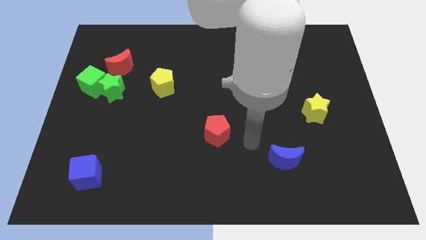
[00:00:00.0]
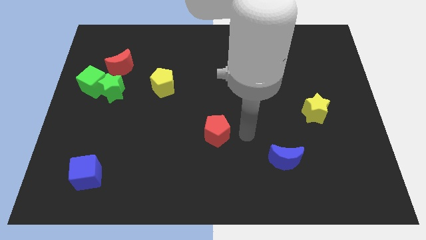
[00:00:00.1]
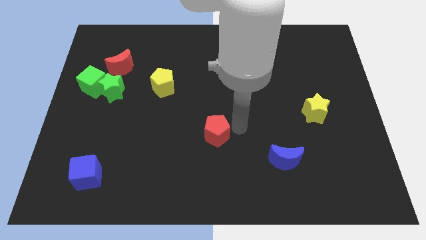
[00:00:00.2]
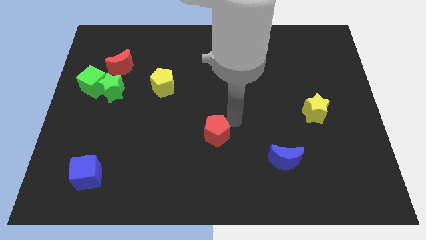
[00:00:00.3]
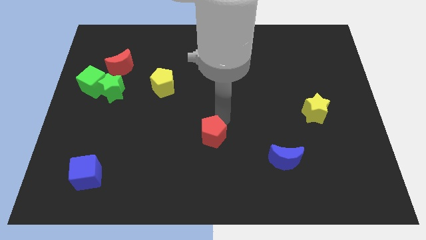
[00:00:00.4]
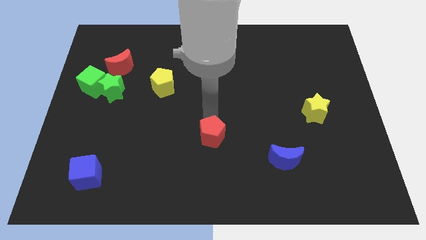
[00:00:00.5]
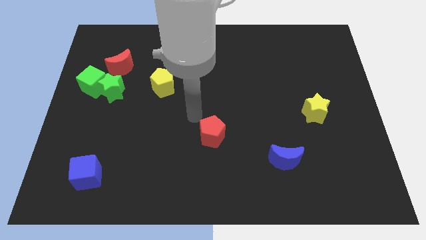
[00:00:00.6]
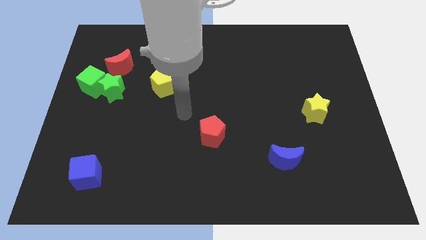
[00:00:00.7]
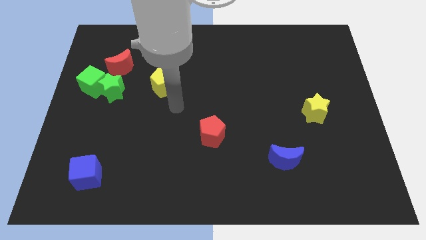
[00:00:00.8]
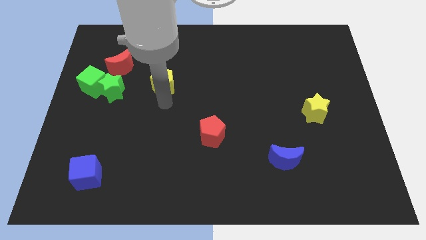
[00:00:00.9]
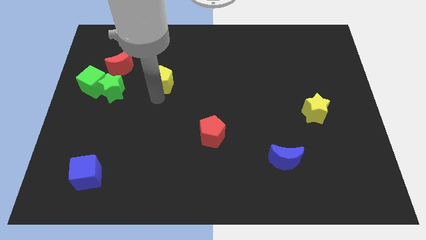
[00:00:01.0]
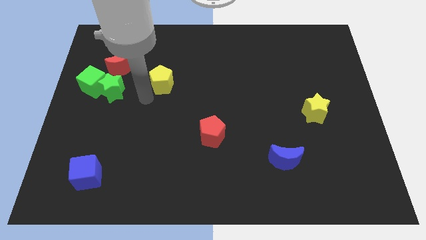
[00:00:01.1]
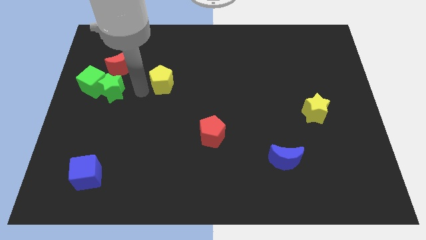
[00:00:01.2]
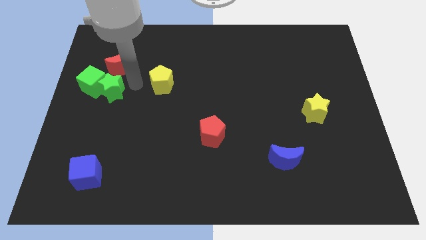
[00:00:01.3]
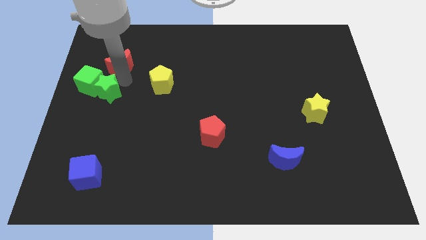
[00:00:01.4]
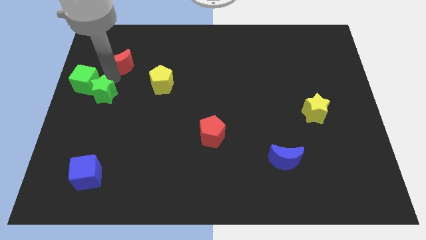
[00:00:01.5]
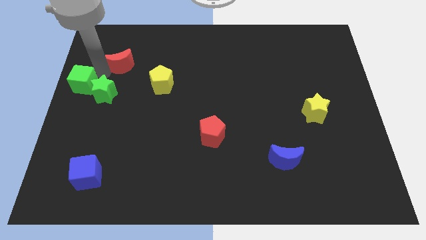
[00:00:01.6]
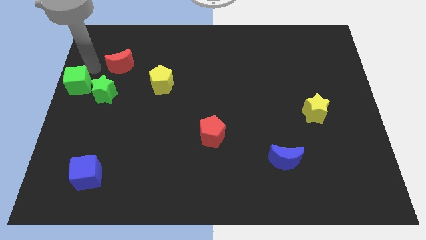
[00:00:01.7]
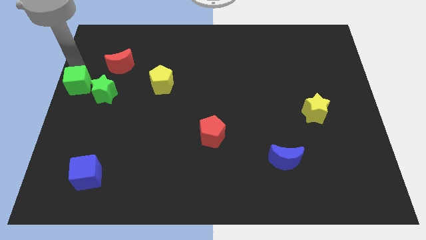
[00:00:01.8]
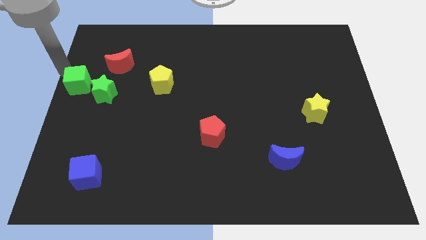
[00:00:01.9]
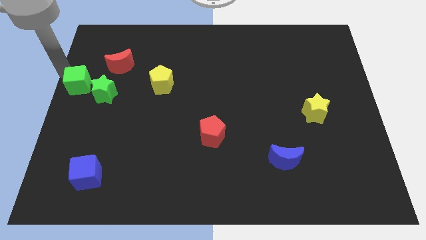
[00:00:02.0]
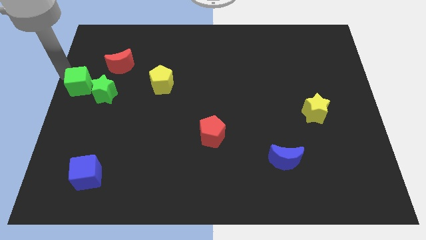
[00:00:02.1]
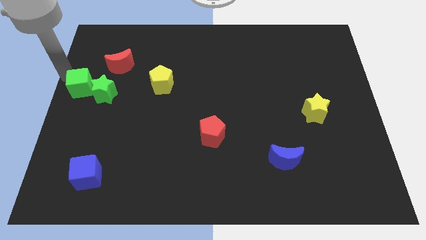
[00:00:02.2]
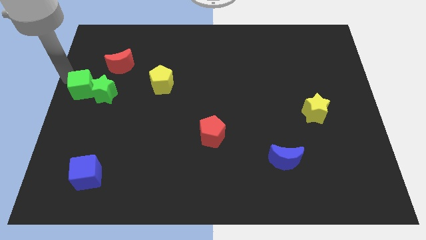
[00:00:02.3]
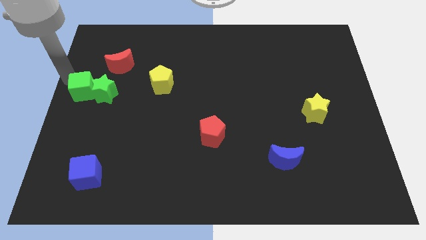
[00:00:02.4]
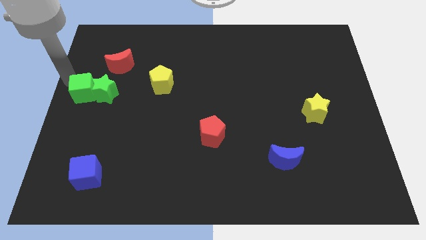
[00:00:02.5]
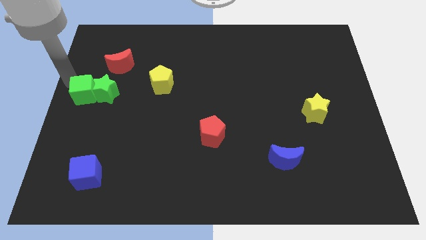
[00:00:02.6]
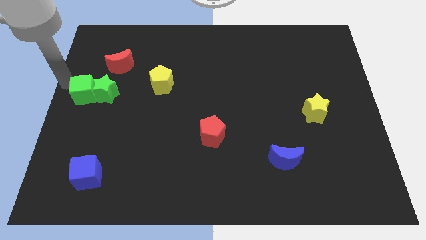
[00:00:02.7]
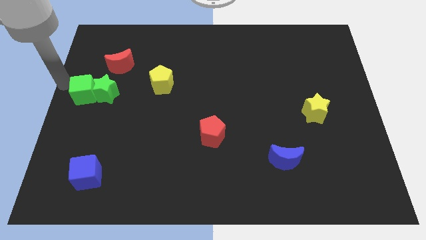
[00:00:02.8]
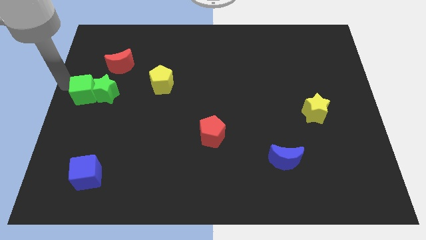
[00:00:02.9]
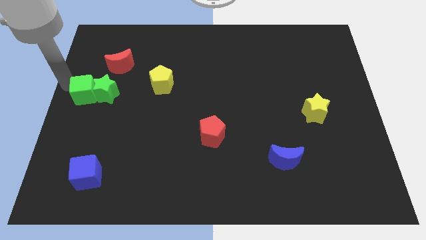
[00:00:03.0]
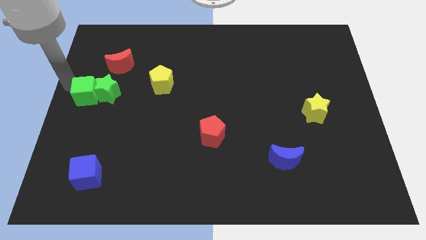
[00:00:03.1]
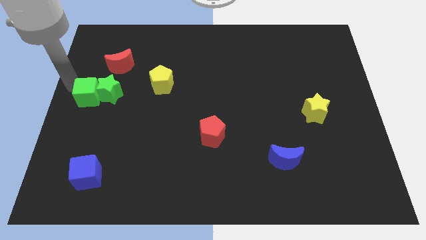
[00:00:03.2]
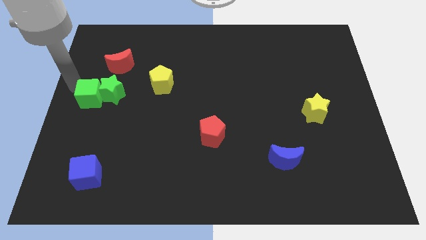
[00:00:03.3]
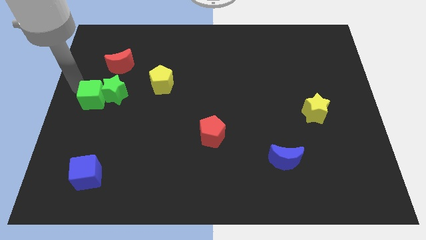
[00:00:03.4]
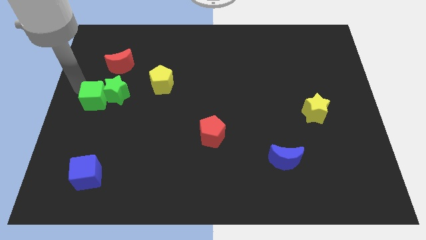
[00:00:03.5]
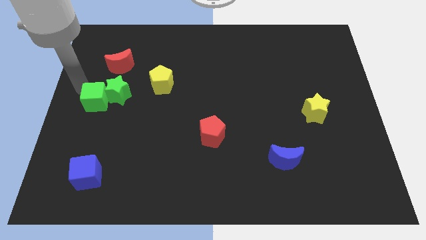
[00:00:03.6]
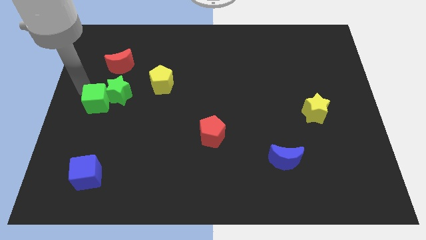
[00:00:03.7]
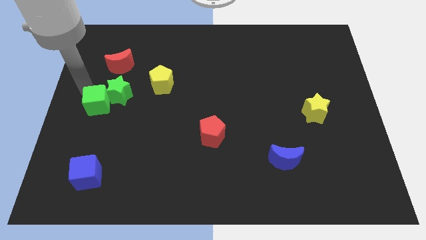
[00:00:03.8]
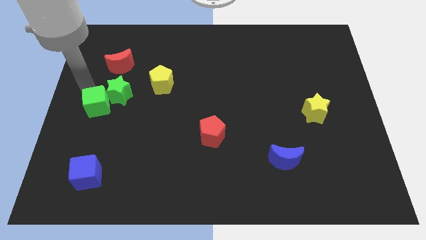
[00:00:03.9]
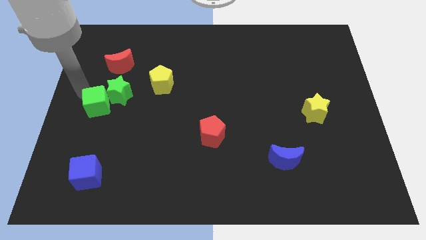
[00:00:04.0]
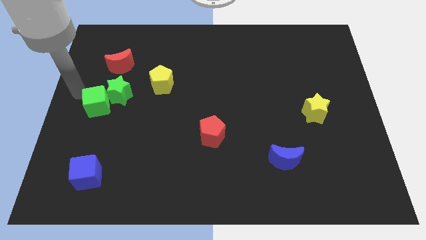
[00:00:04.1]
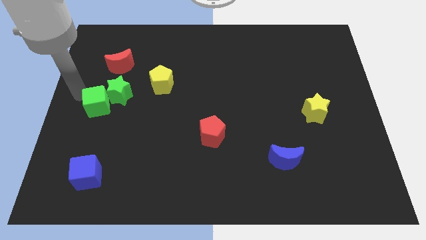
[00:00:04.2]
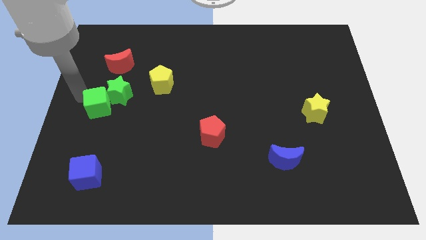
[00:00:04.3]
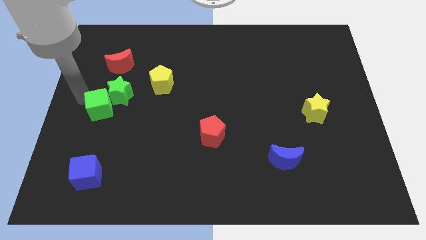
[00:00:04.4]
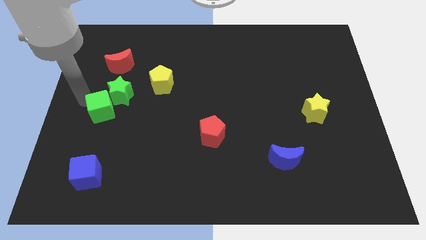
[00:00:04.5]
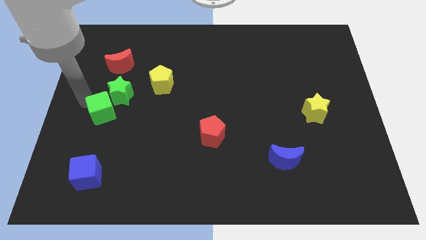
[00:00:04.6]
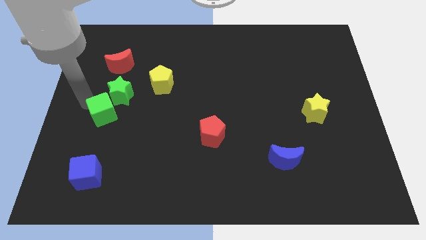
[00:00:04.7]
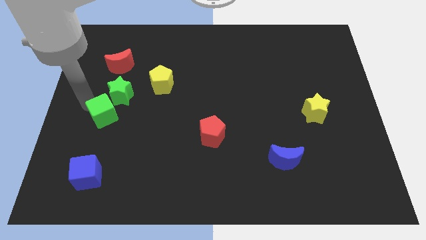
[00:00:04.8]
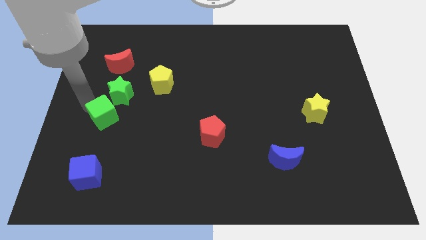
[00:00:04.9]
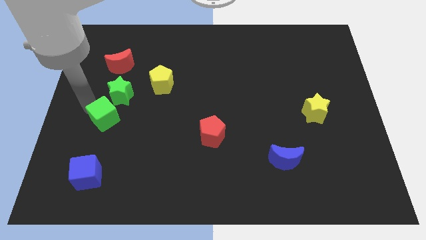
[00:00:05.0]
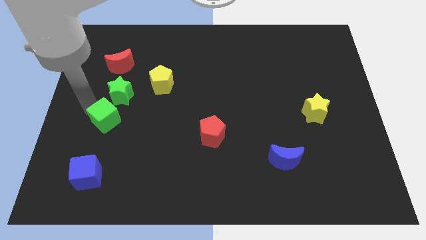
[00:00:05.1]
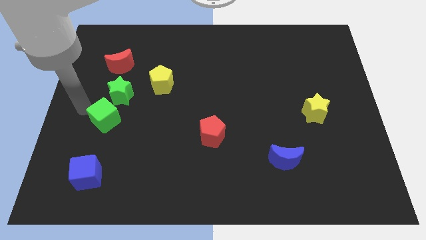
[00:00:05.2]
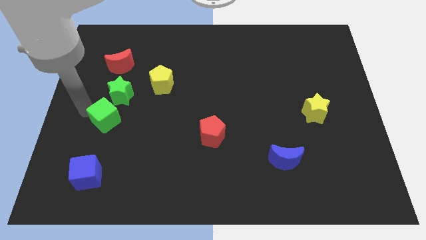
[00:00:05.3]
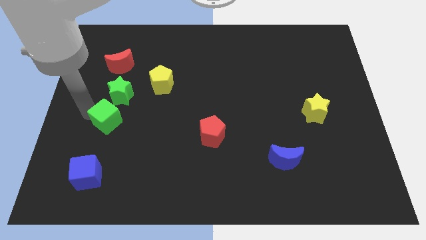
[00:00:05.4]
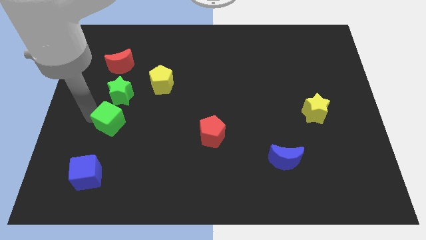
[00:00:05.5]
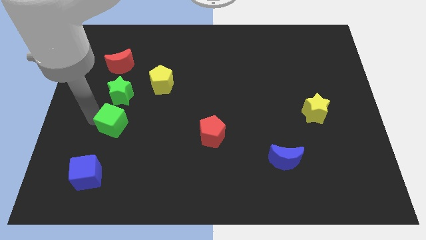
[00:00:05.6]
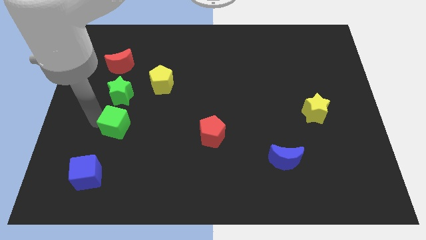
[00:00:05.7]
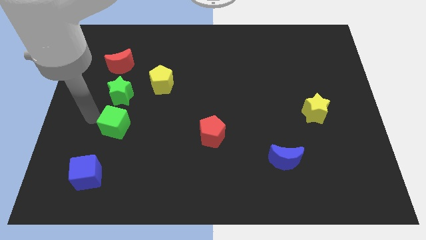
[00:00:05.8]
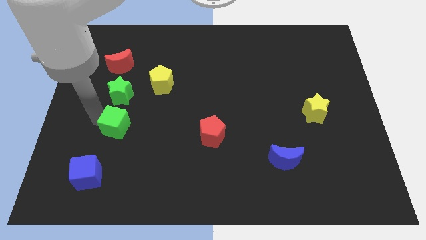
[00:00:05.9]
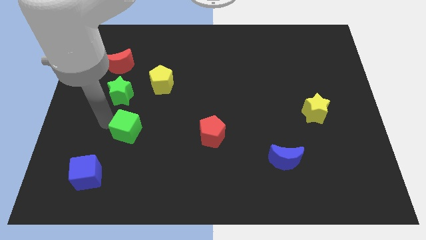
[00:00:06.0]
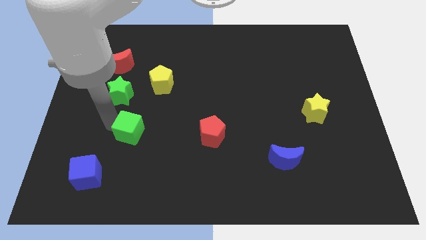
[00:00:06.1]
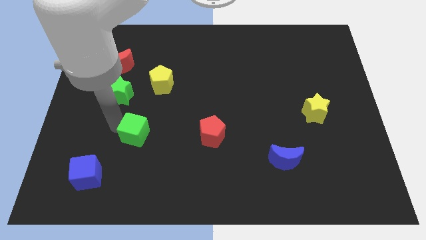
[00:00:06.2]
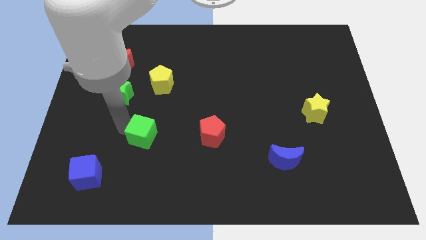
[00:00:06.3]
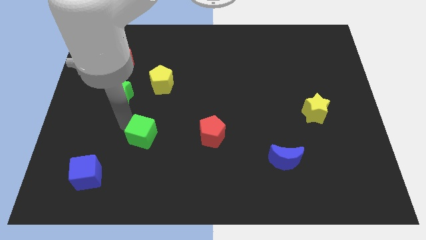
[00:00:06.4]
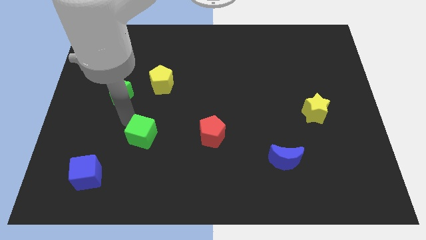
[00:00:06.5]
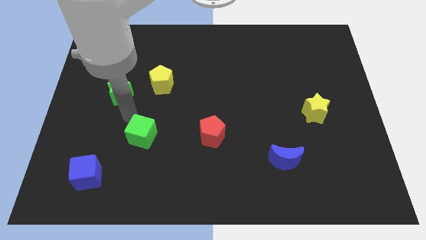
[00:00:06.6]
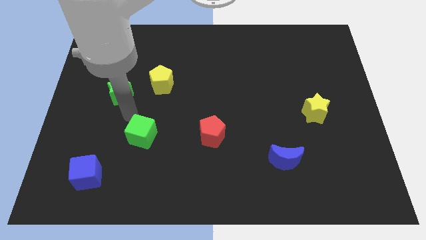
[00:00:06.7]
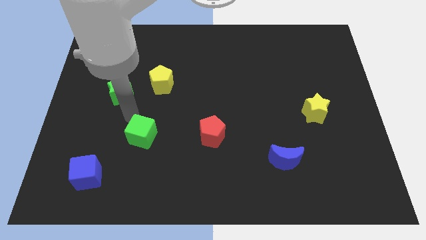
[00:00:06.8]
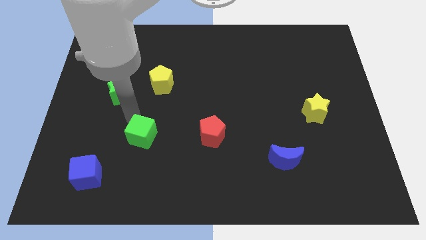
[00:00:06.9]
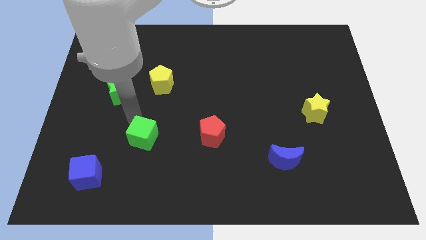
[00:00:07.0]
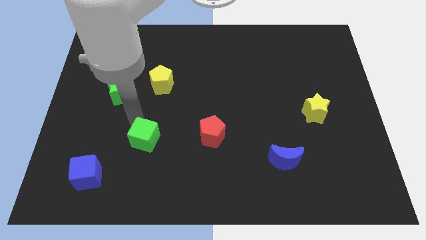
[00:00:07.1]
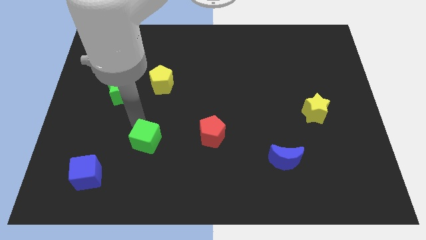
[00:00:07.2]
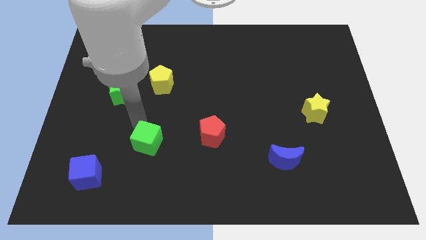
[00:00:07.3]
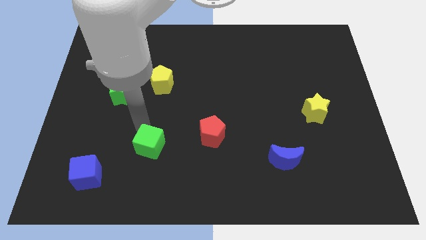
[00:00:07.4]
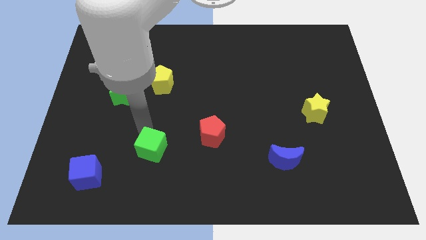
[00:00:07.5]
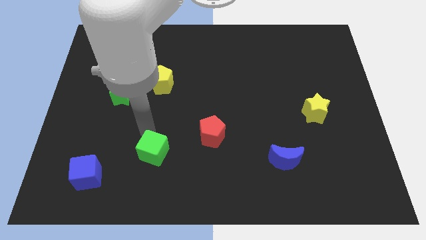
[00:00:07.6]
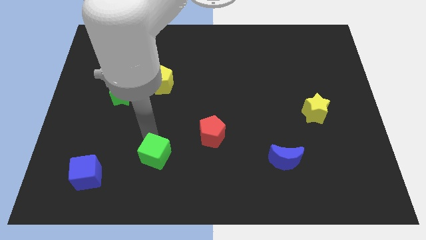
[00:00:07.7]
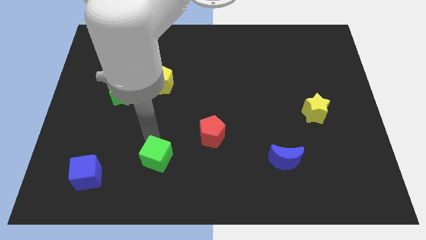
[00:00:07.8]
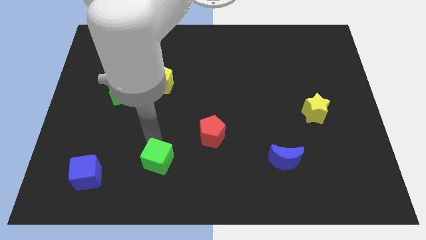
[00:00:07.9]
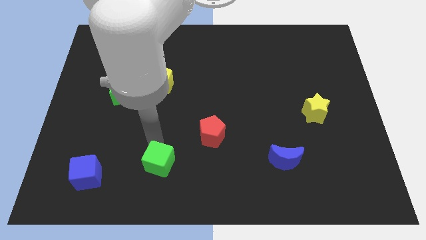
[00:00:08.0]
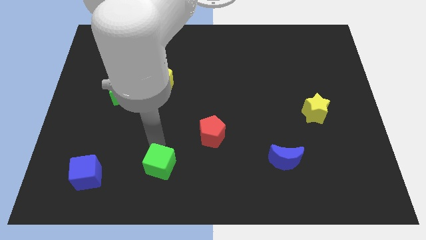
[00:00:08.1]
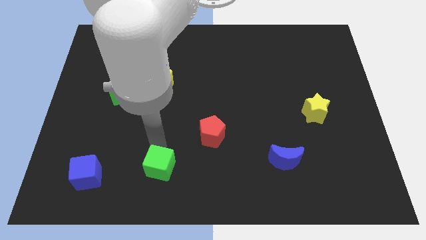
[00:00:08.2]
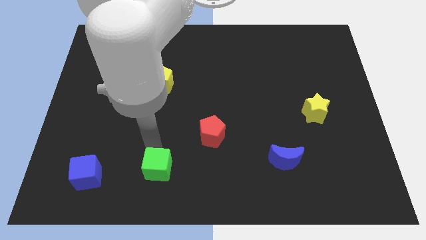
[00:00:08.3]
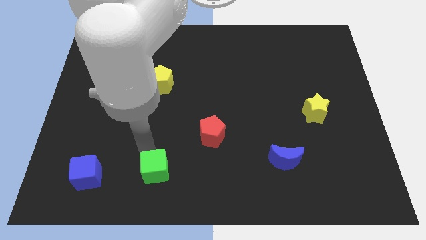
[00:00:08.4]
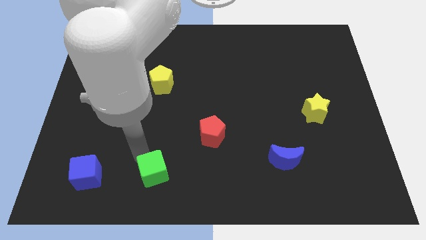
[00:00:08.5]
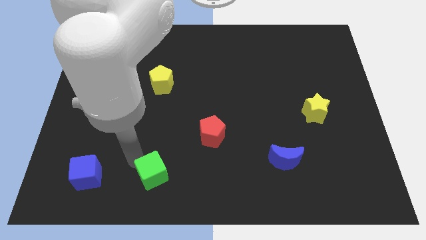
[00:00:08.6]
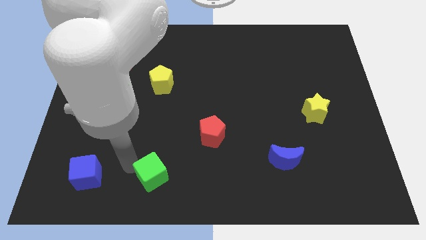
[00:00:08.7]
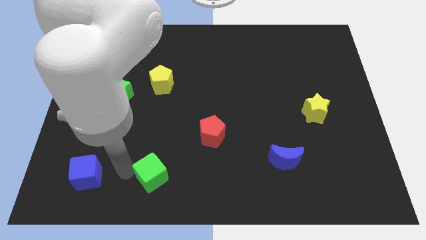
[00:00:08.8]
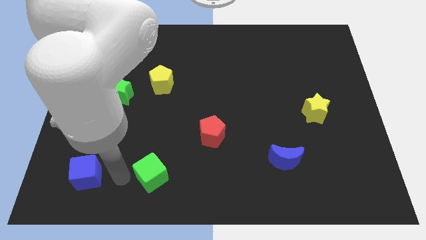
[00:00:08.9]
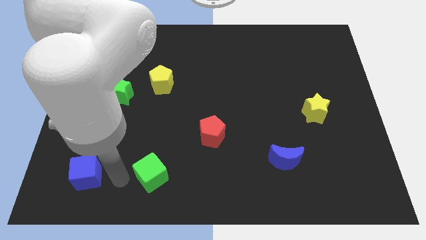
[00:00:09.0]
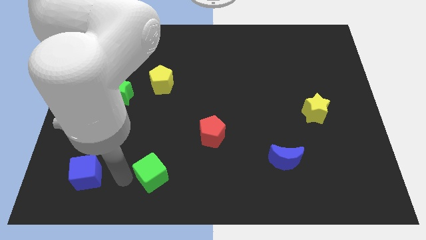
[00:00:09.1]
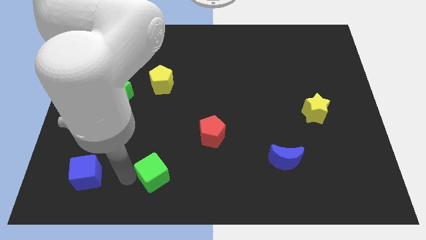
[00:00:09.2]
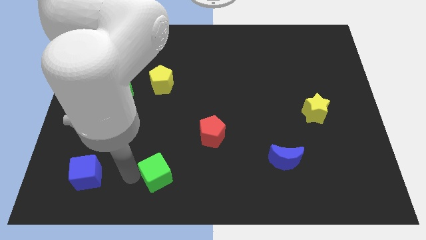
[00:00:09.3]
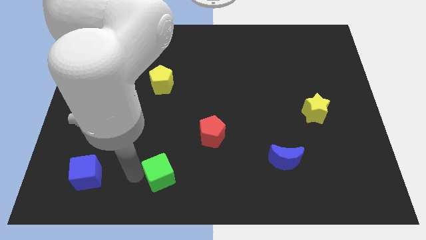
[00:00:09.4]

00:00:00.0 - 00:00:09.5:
move the green cube to the bottom side
